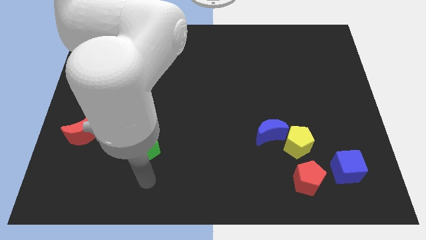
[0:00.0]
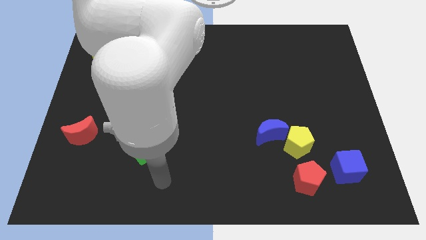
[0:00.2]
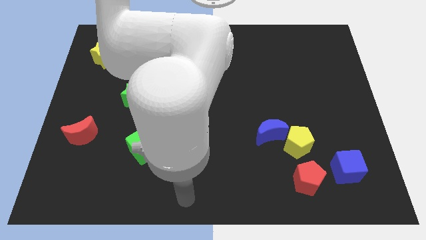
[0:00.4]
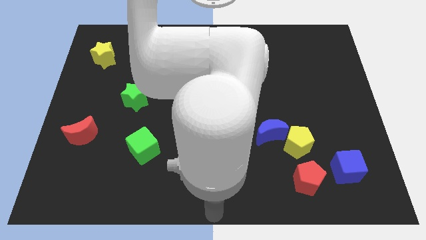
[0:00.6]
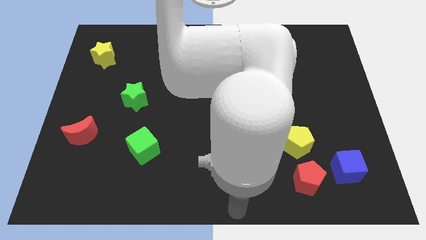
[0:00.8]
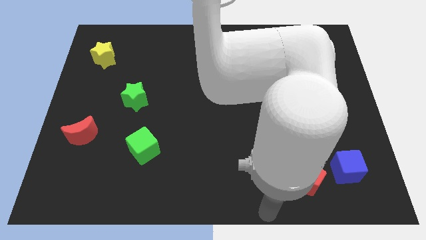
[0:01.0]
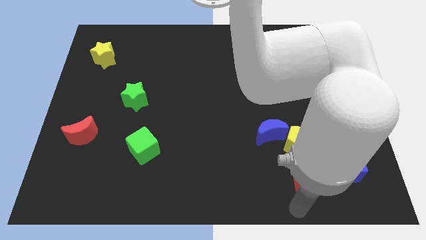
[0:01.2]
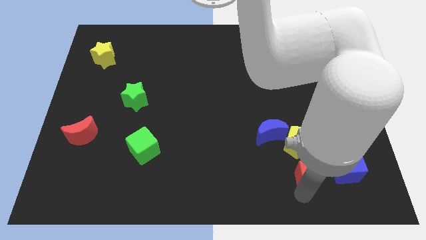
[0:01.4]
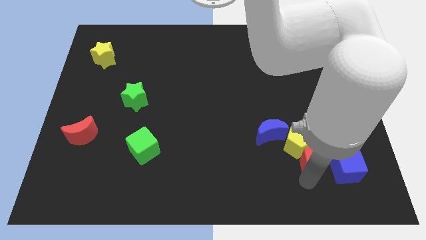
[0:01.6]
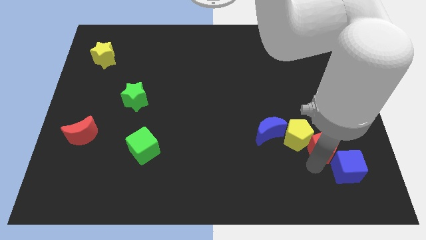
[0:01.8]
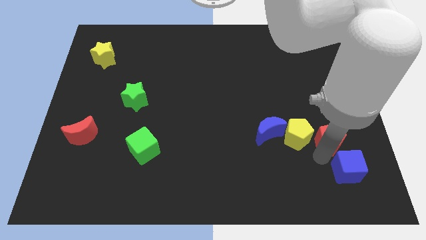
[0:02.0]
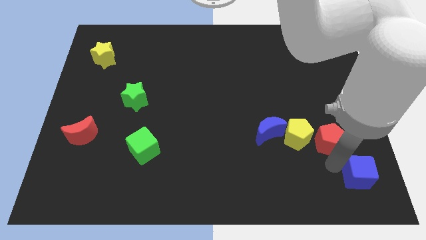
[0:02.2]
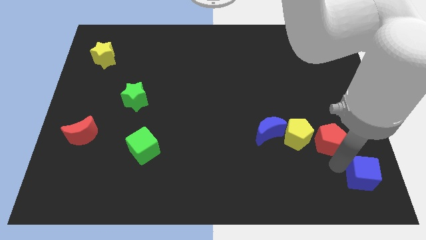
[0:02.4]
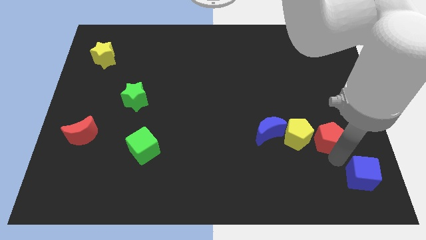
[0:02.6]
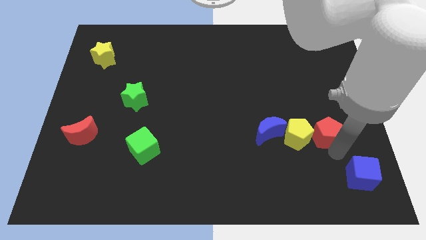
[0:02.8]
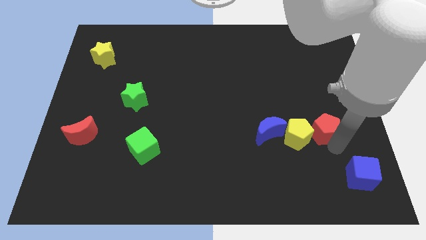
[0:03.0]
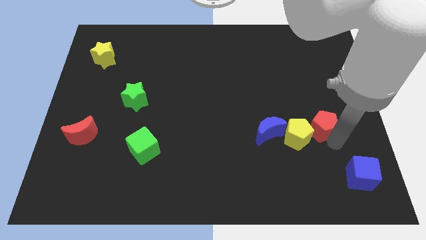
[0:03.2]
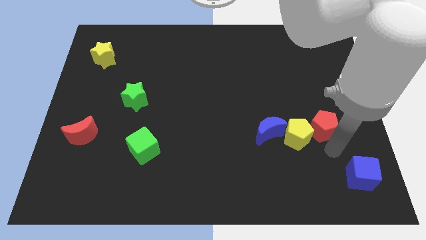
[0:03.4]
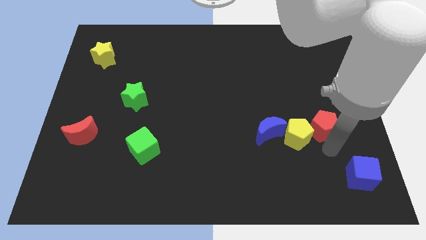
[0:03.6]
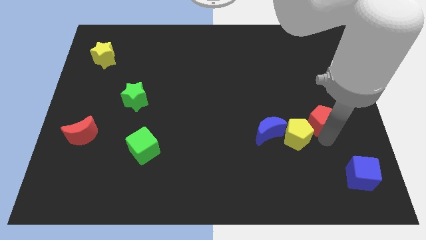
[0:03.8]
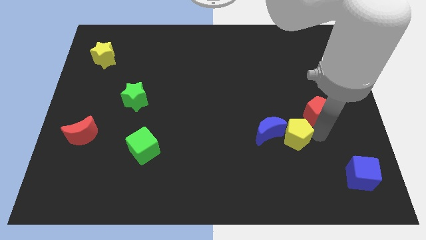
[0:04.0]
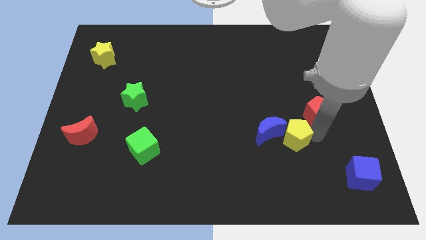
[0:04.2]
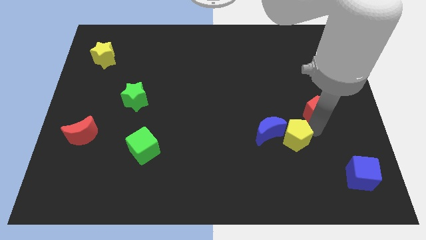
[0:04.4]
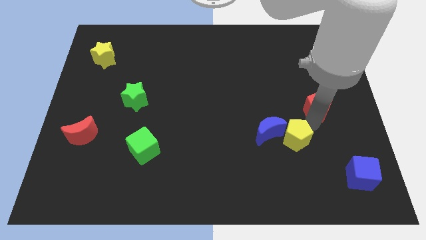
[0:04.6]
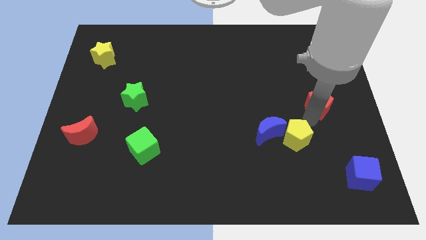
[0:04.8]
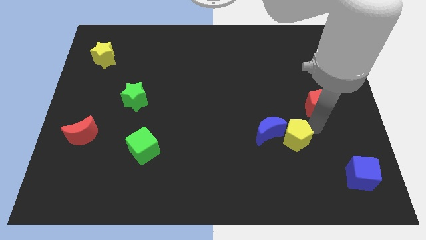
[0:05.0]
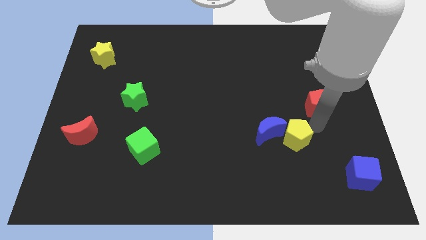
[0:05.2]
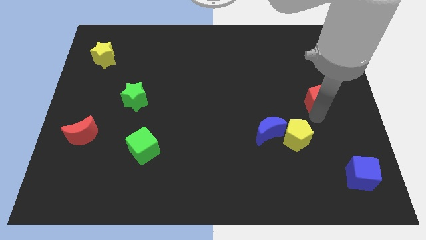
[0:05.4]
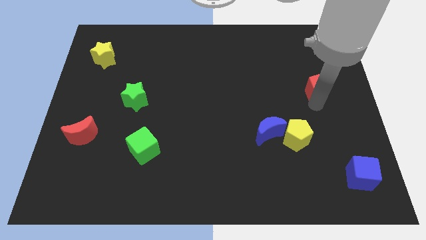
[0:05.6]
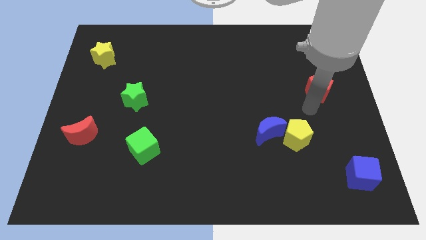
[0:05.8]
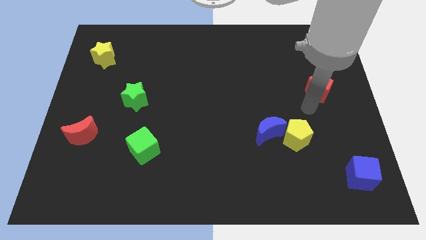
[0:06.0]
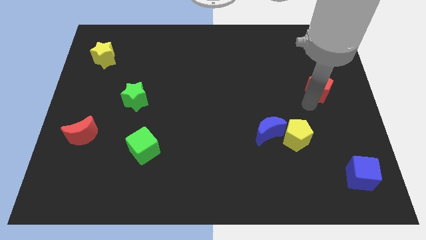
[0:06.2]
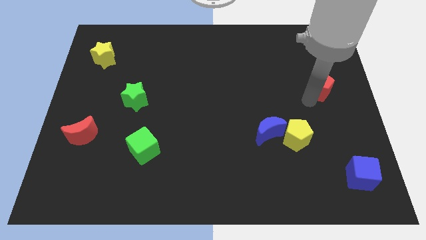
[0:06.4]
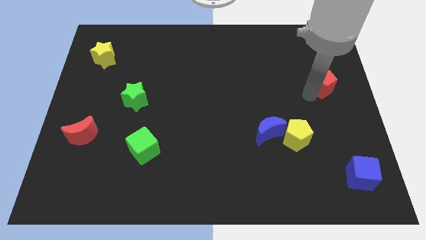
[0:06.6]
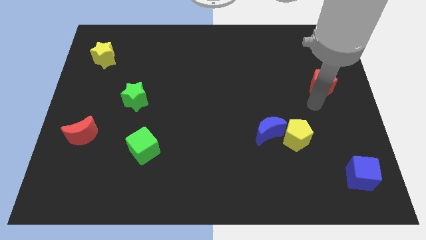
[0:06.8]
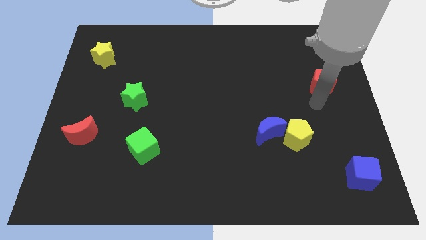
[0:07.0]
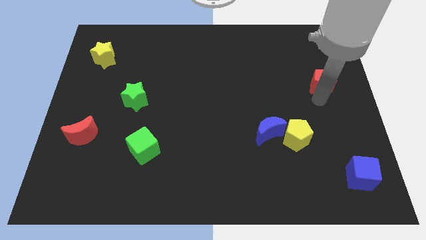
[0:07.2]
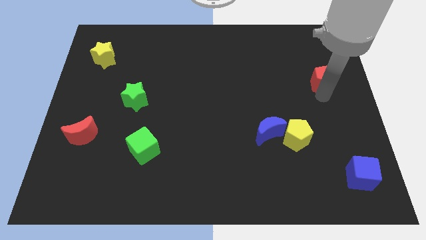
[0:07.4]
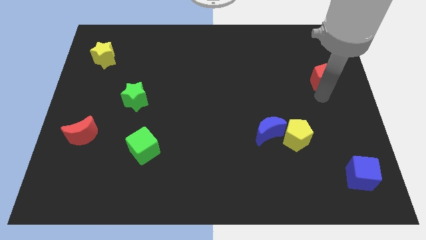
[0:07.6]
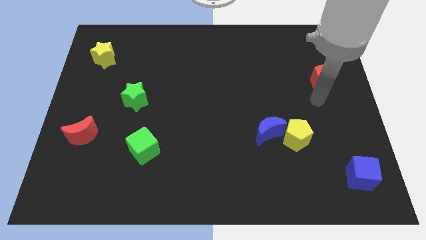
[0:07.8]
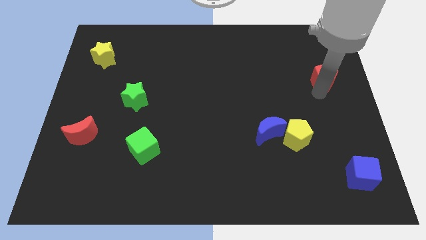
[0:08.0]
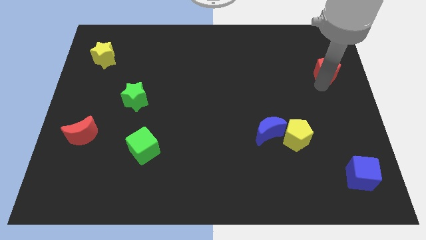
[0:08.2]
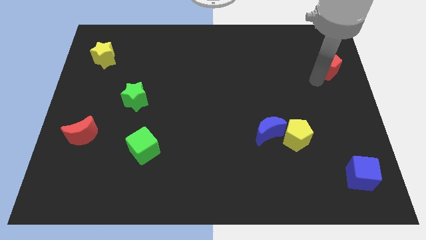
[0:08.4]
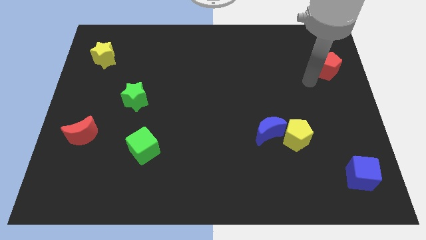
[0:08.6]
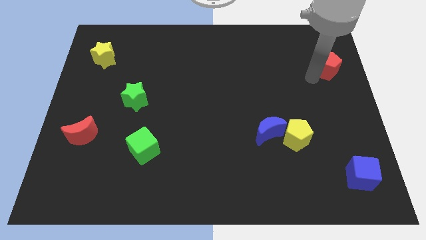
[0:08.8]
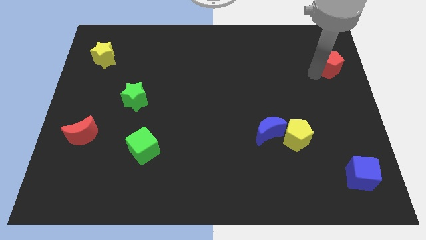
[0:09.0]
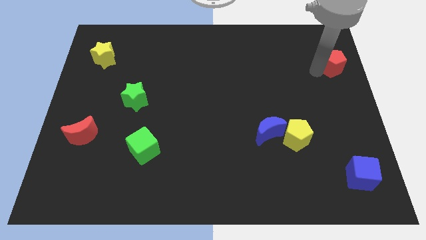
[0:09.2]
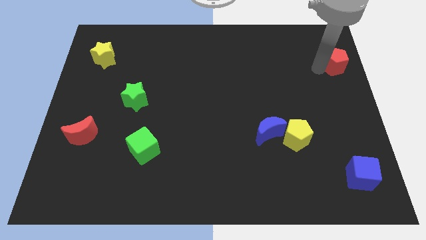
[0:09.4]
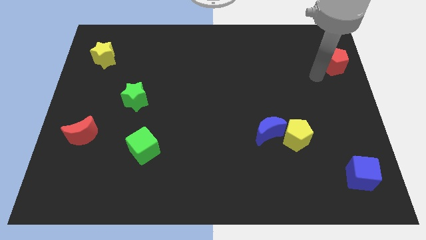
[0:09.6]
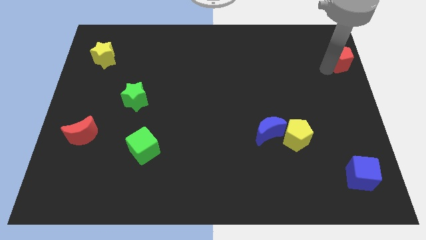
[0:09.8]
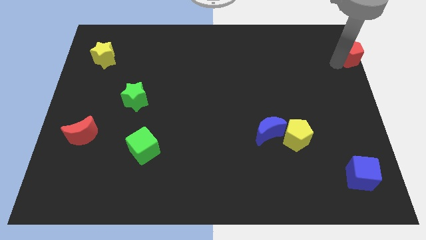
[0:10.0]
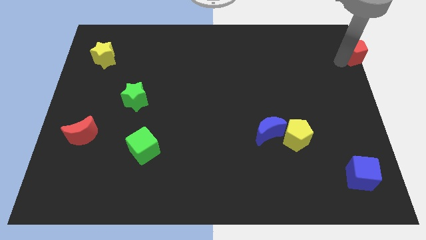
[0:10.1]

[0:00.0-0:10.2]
slide the red pentagon to the upper right corner

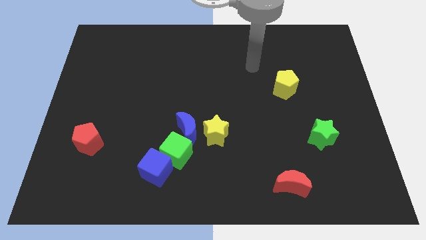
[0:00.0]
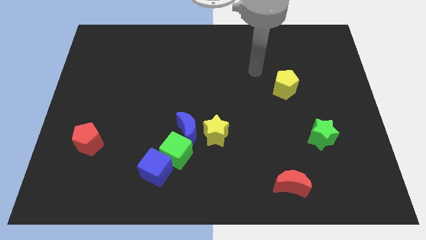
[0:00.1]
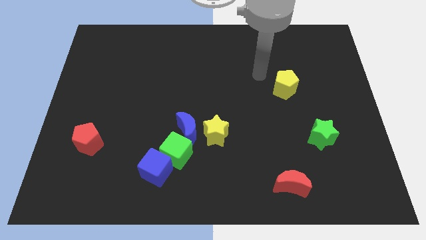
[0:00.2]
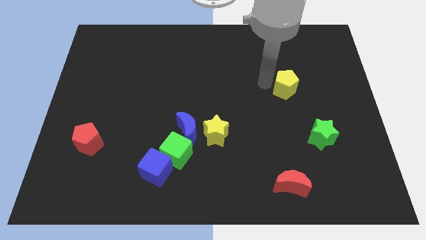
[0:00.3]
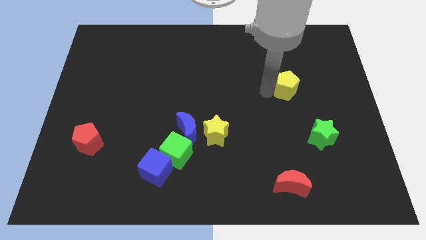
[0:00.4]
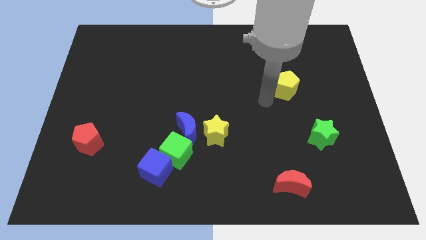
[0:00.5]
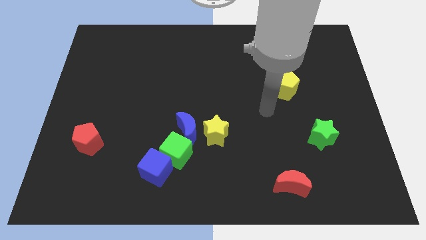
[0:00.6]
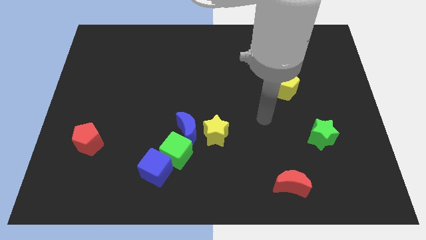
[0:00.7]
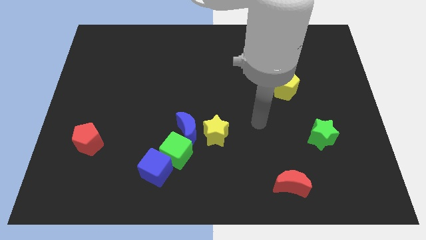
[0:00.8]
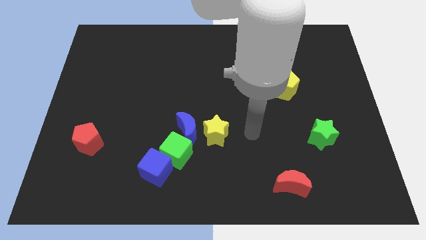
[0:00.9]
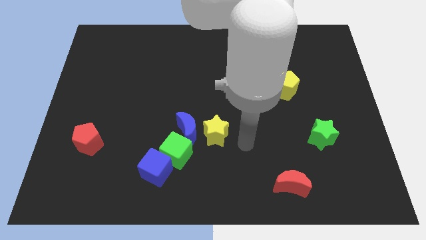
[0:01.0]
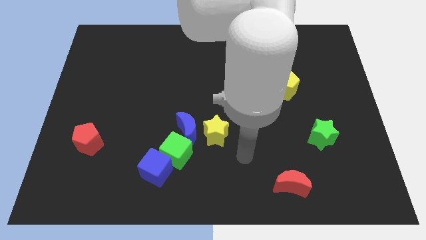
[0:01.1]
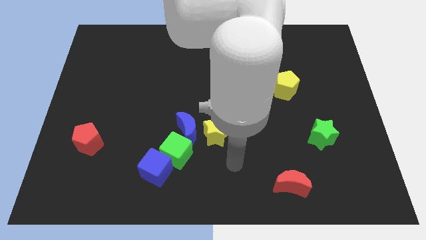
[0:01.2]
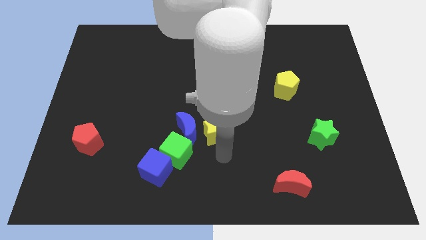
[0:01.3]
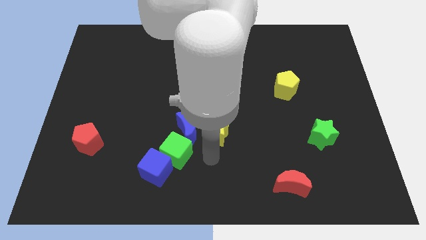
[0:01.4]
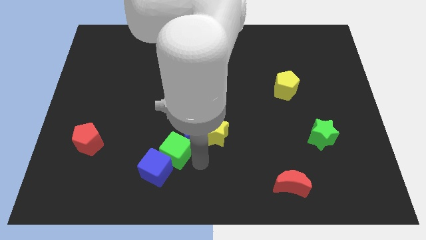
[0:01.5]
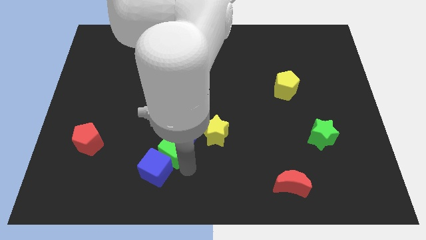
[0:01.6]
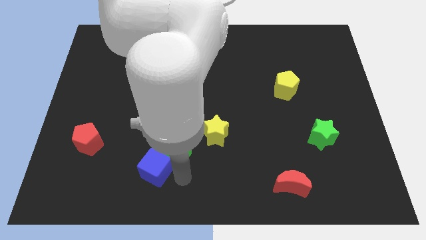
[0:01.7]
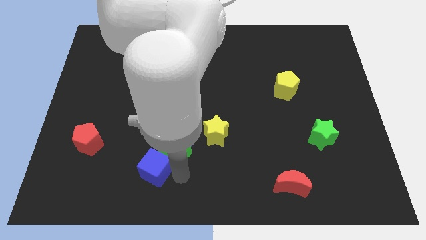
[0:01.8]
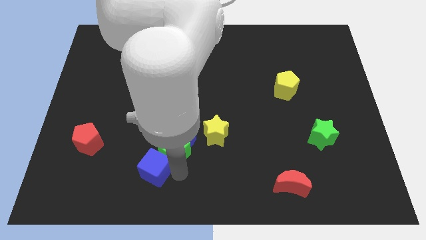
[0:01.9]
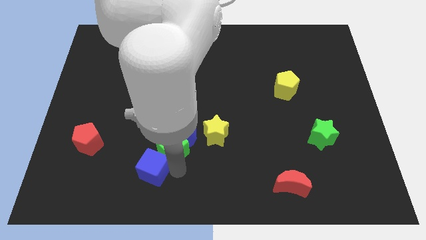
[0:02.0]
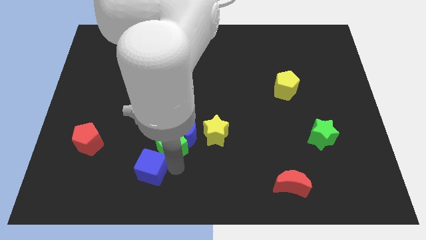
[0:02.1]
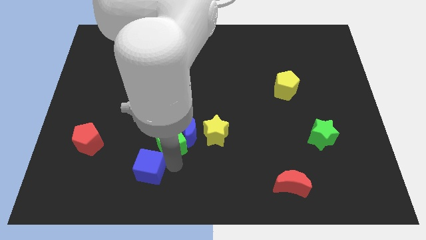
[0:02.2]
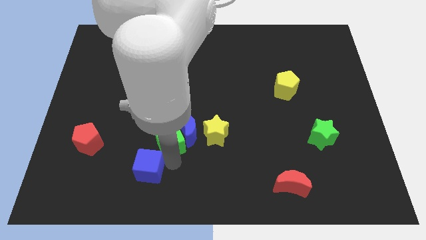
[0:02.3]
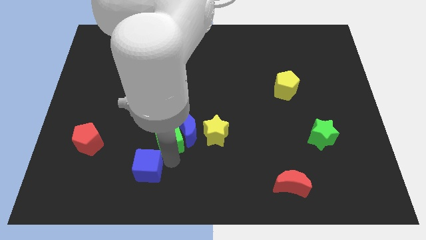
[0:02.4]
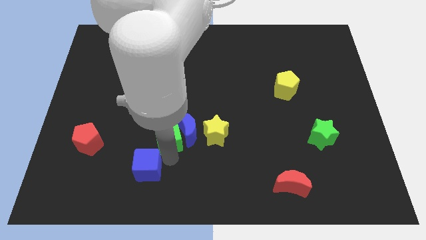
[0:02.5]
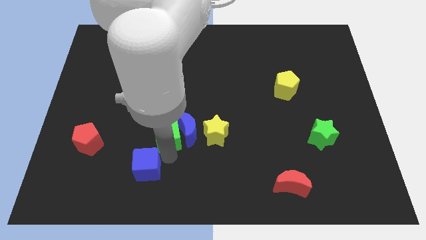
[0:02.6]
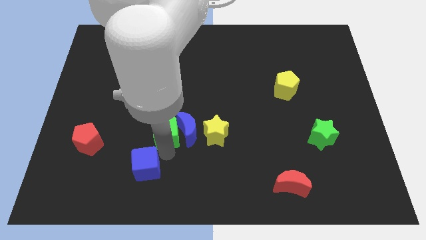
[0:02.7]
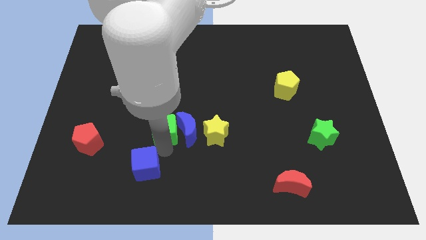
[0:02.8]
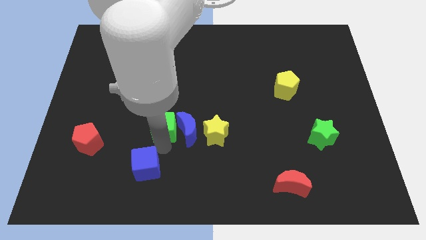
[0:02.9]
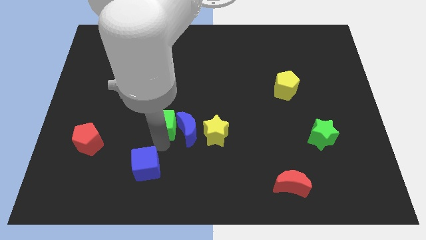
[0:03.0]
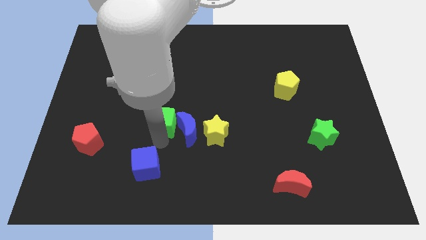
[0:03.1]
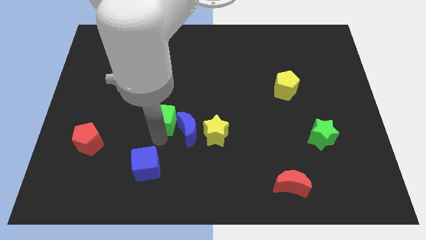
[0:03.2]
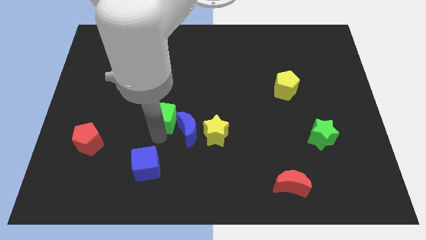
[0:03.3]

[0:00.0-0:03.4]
move the green cube to the middle
